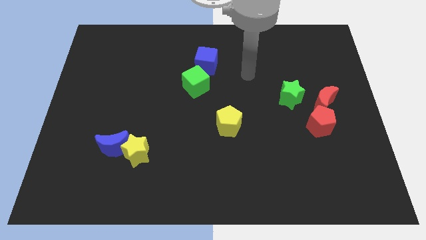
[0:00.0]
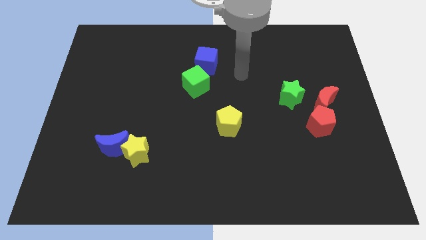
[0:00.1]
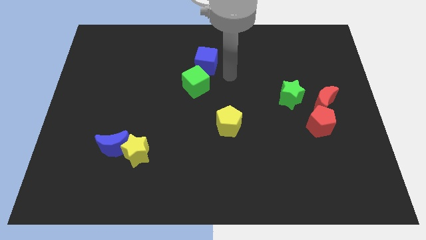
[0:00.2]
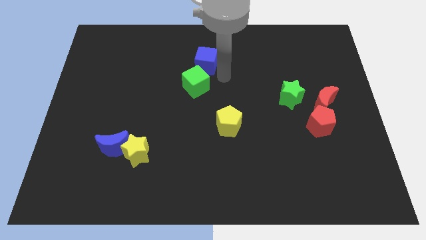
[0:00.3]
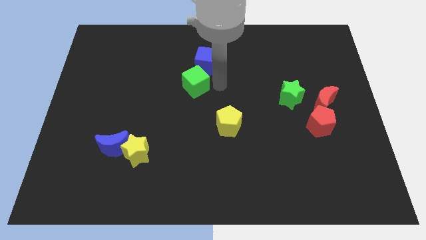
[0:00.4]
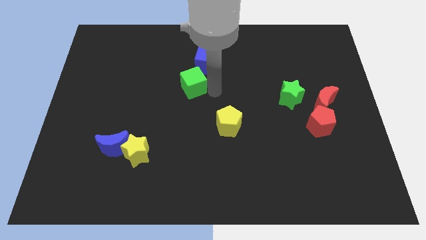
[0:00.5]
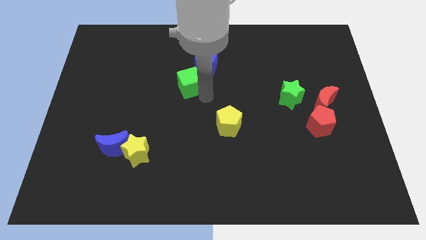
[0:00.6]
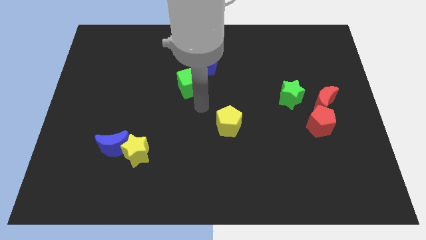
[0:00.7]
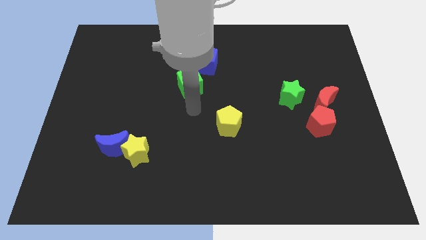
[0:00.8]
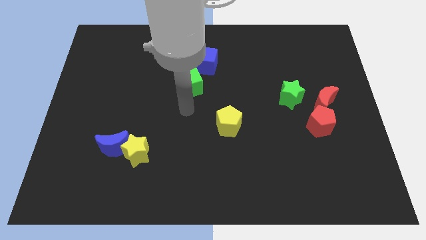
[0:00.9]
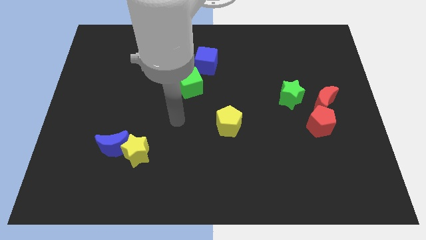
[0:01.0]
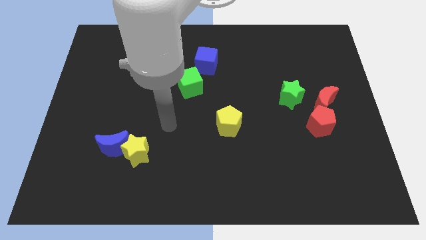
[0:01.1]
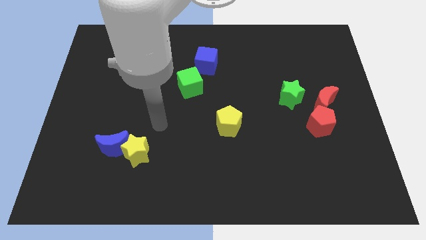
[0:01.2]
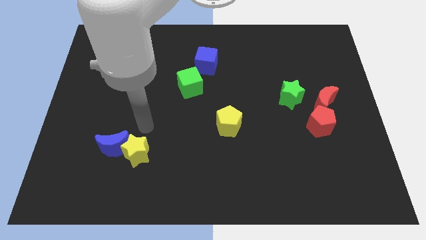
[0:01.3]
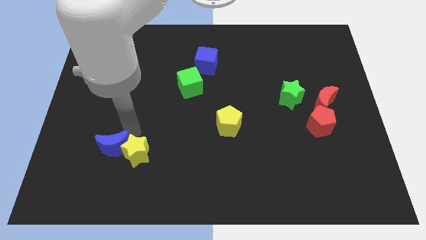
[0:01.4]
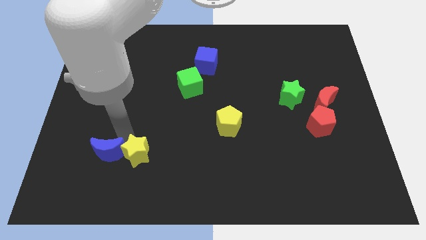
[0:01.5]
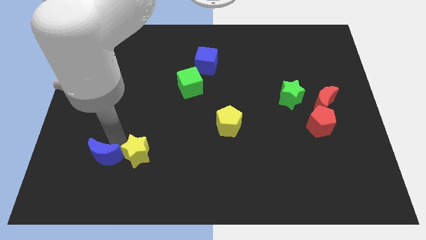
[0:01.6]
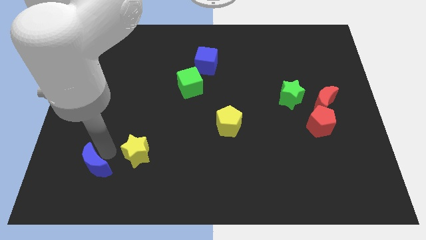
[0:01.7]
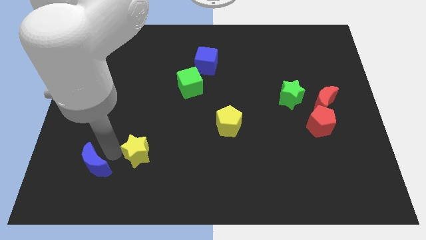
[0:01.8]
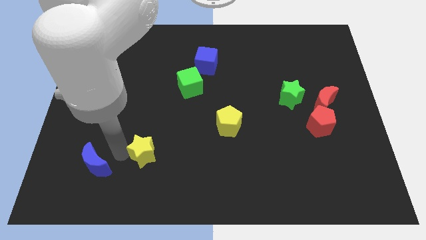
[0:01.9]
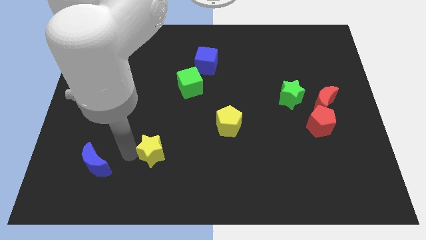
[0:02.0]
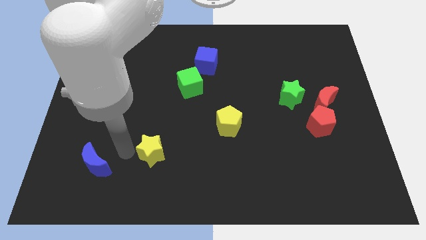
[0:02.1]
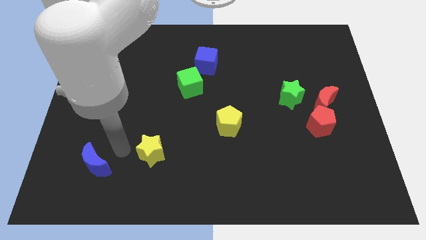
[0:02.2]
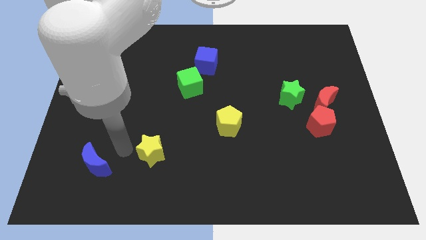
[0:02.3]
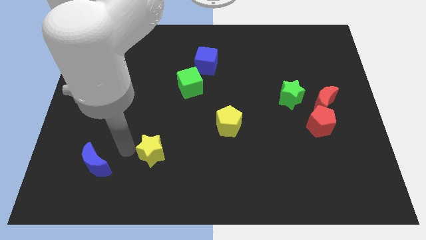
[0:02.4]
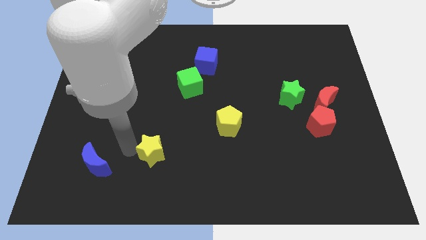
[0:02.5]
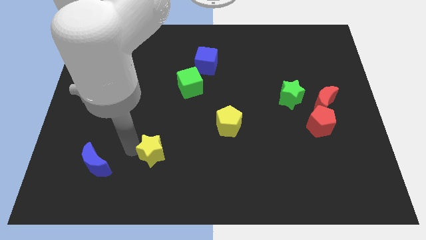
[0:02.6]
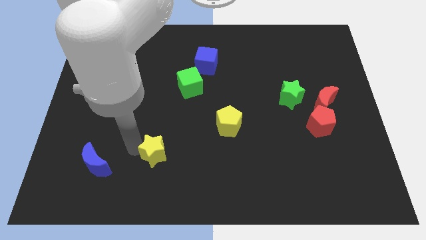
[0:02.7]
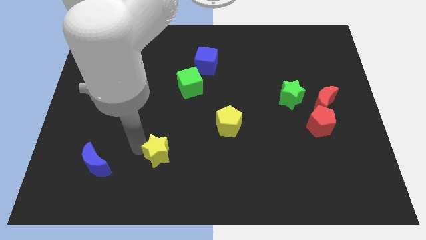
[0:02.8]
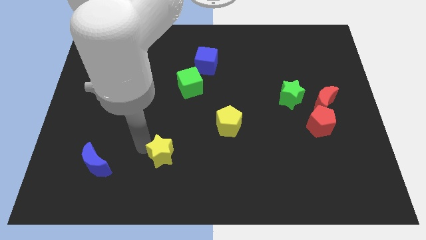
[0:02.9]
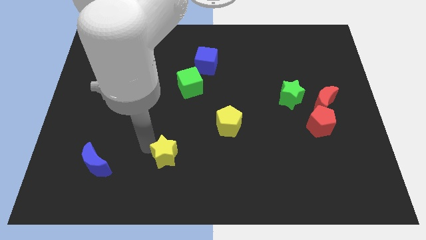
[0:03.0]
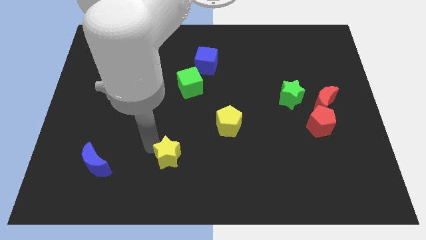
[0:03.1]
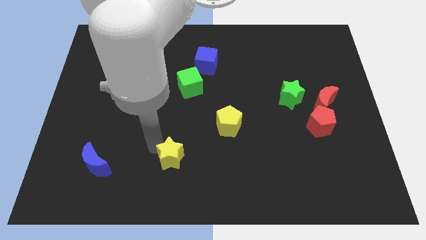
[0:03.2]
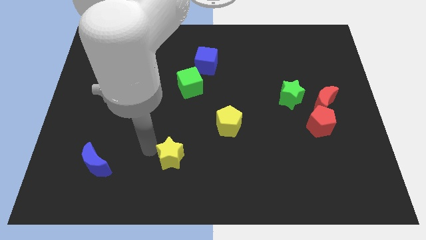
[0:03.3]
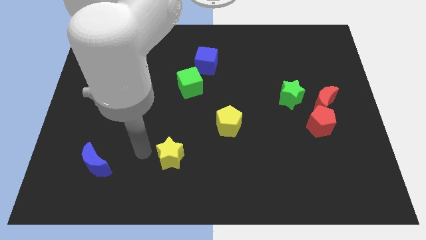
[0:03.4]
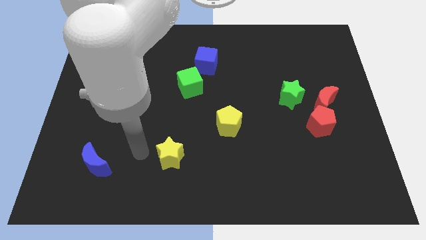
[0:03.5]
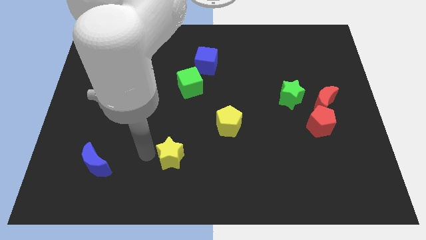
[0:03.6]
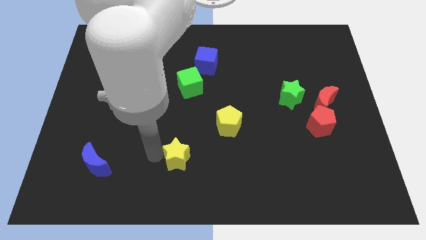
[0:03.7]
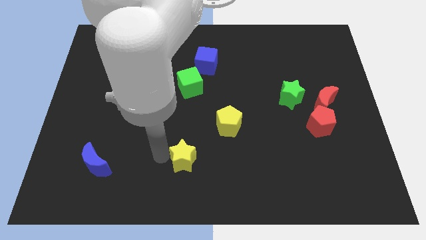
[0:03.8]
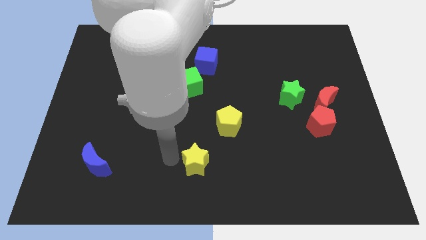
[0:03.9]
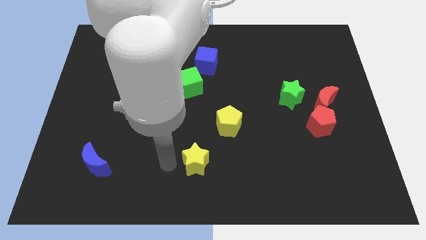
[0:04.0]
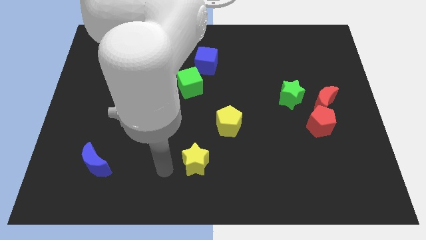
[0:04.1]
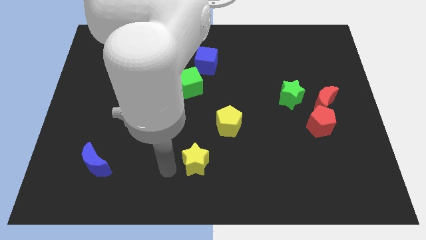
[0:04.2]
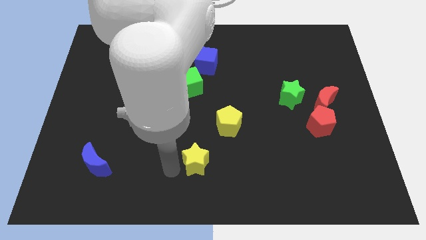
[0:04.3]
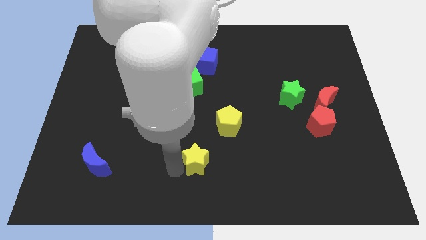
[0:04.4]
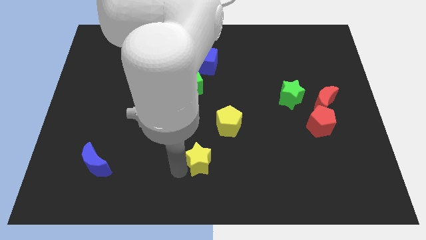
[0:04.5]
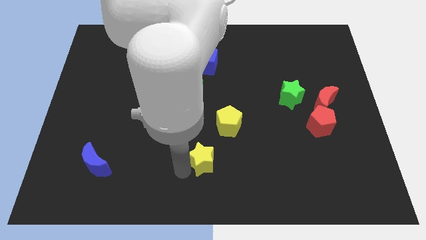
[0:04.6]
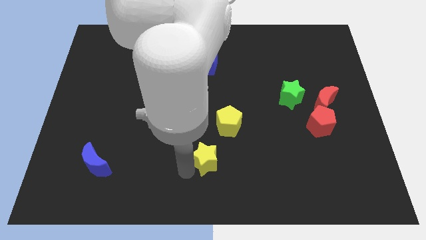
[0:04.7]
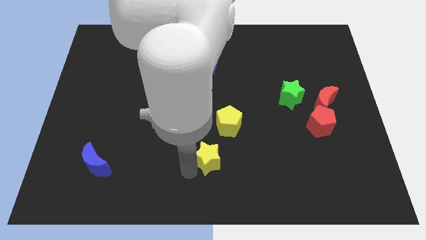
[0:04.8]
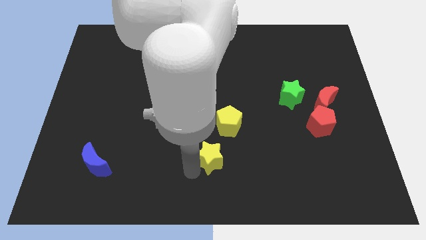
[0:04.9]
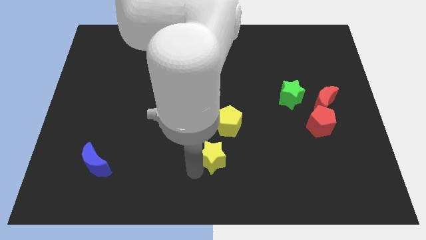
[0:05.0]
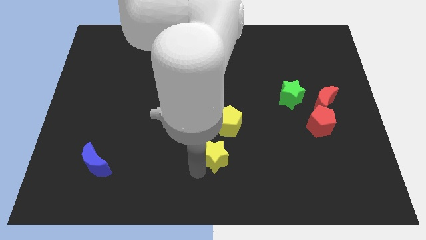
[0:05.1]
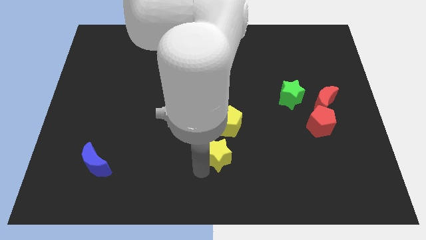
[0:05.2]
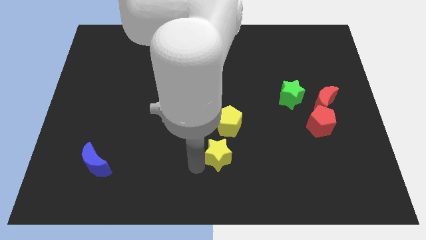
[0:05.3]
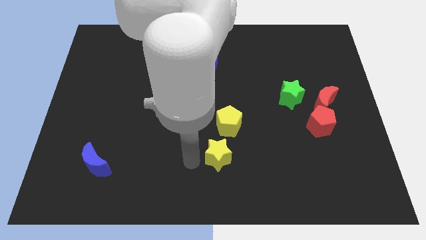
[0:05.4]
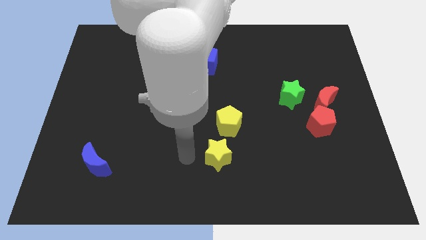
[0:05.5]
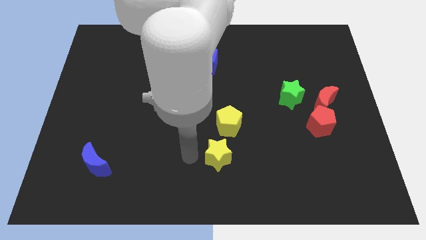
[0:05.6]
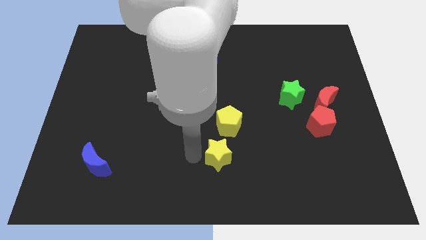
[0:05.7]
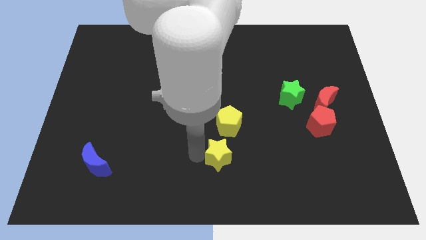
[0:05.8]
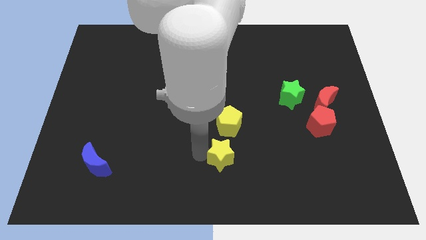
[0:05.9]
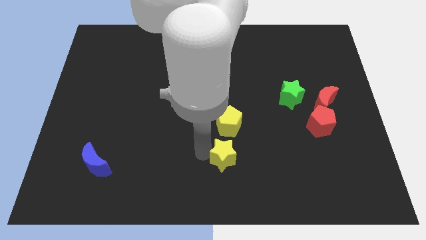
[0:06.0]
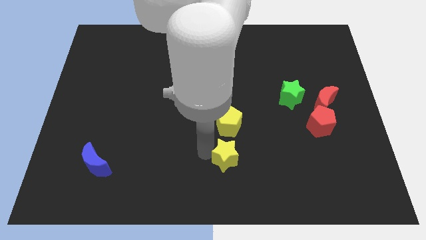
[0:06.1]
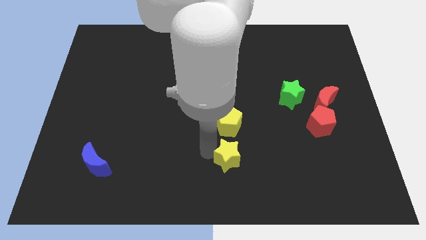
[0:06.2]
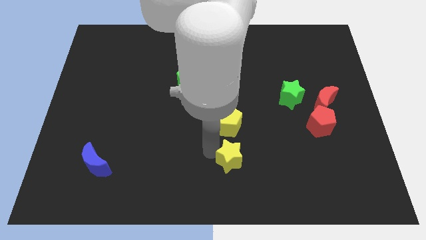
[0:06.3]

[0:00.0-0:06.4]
push the yellow star to the right

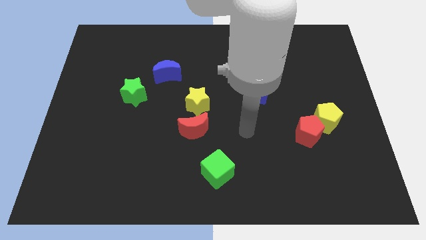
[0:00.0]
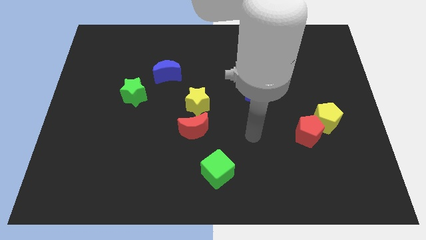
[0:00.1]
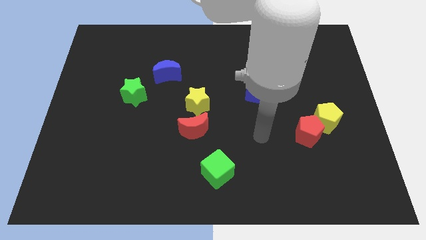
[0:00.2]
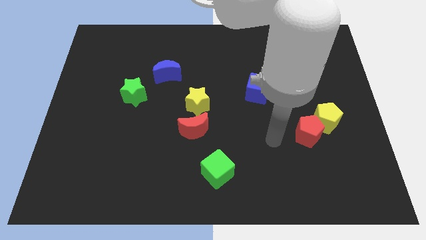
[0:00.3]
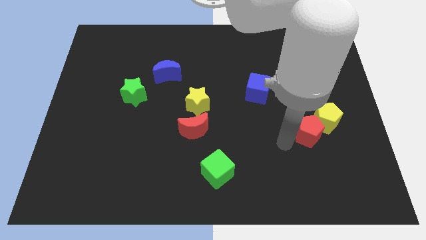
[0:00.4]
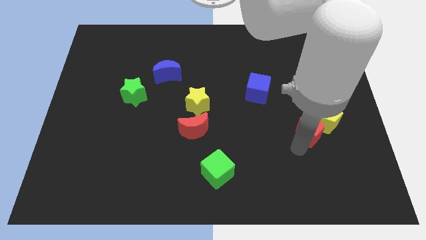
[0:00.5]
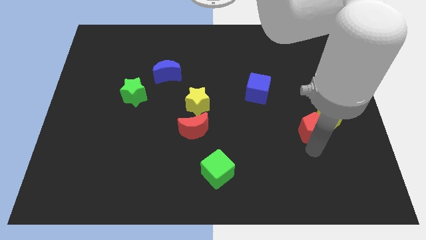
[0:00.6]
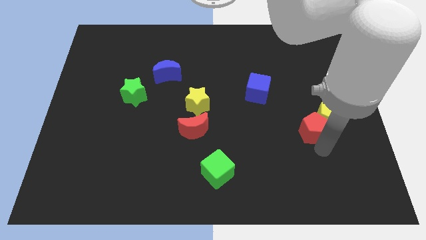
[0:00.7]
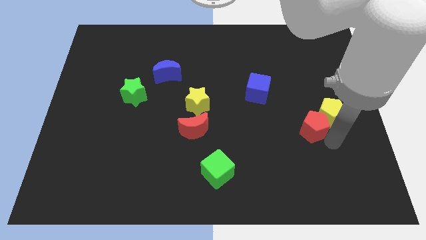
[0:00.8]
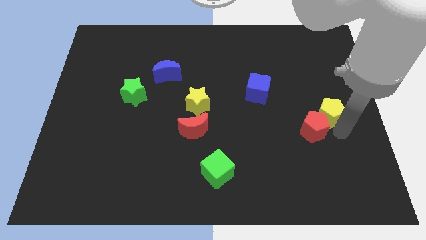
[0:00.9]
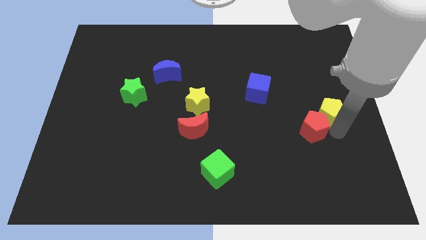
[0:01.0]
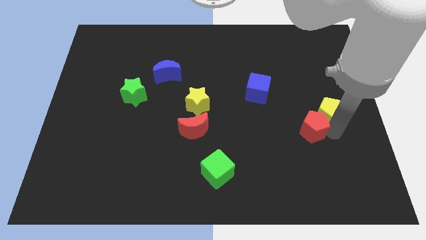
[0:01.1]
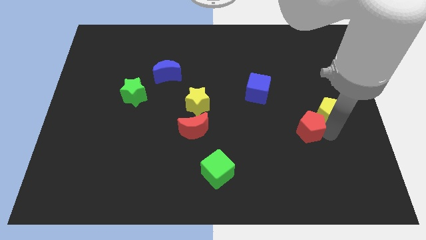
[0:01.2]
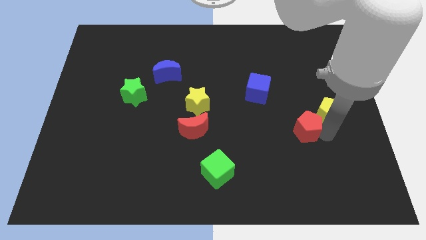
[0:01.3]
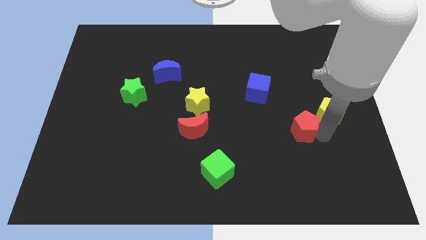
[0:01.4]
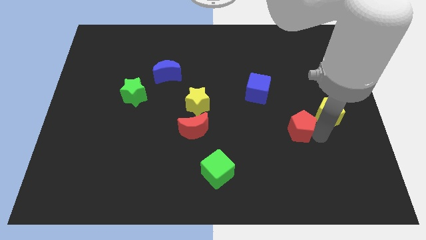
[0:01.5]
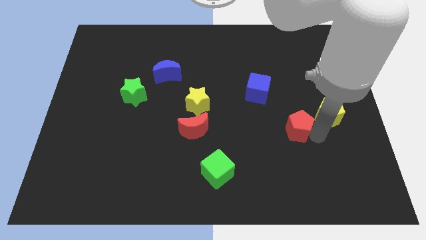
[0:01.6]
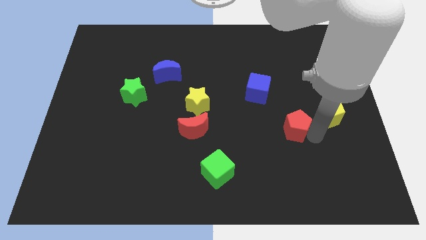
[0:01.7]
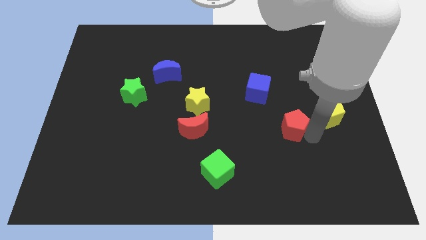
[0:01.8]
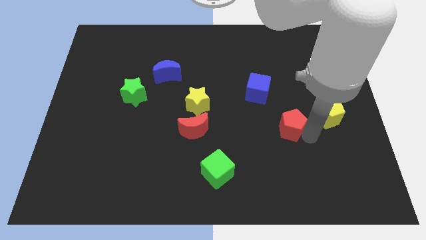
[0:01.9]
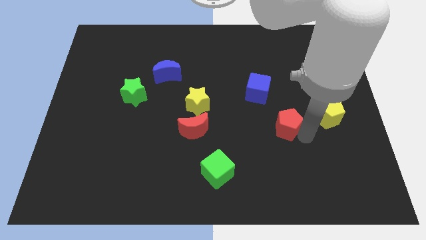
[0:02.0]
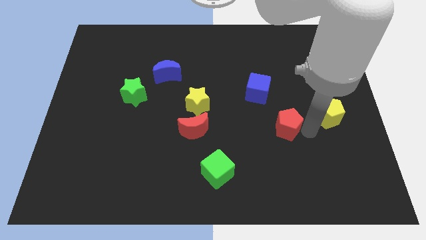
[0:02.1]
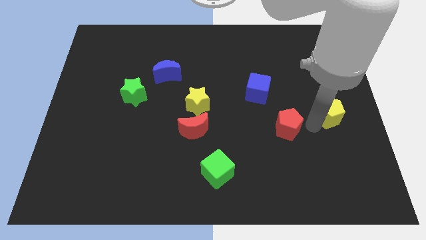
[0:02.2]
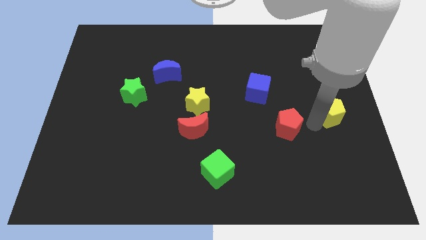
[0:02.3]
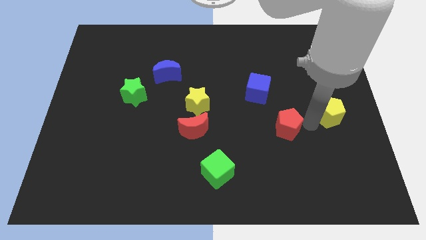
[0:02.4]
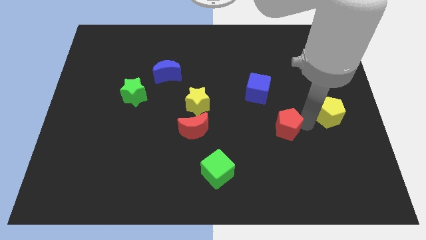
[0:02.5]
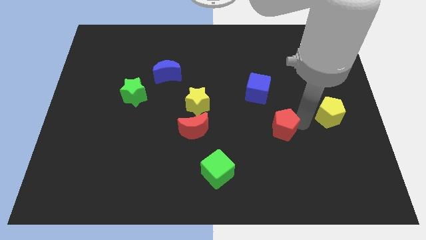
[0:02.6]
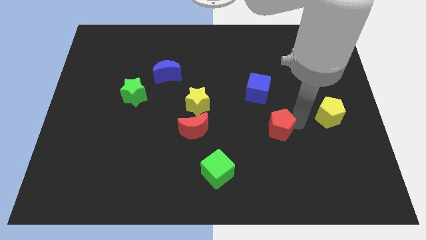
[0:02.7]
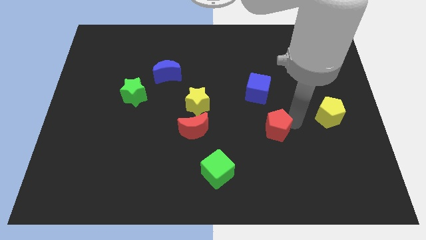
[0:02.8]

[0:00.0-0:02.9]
slightly push the red pentagon to the left
